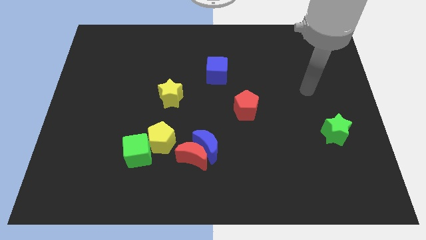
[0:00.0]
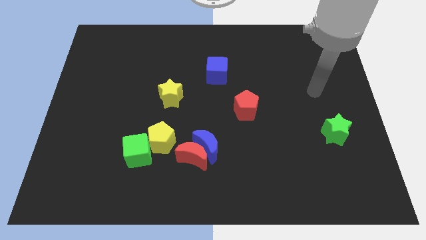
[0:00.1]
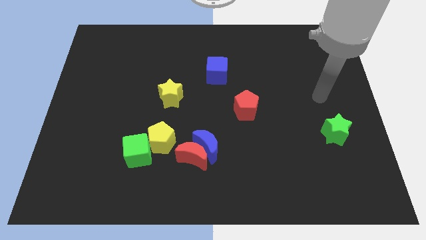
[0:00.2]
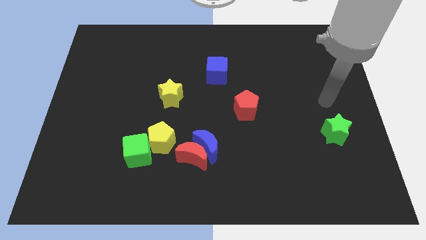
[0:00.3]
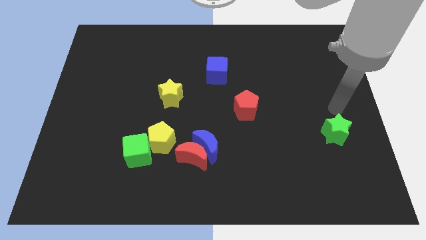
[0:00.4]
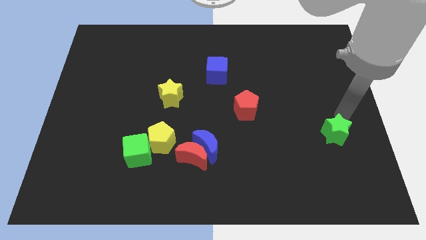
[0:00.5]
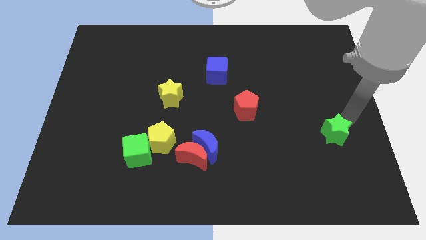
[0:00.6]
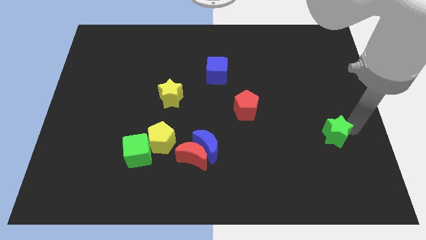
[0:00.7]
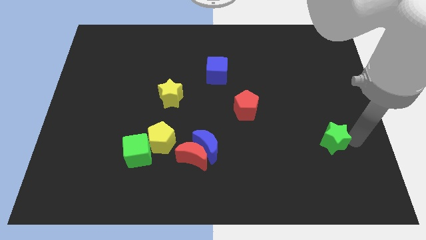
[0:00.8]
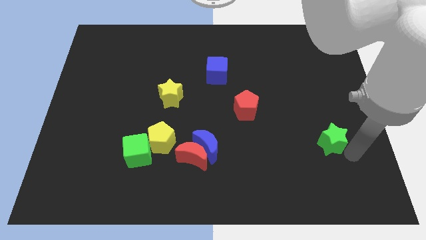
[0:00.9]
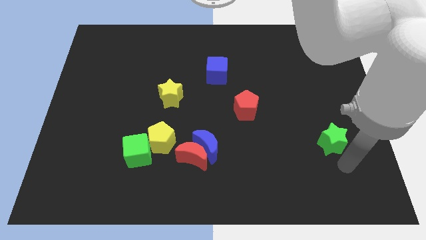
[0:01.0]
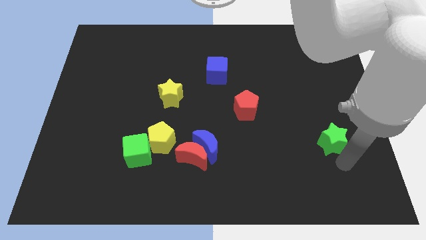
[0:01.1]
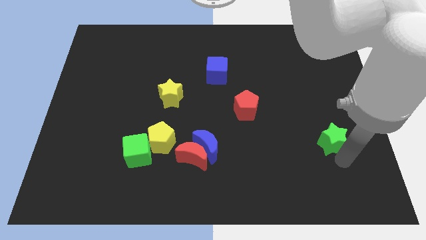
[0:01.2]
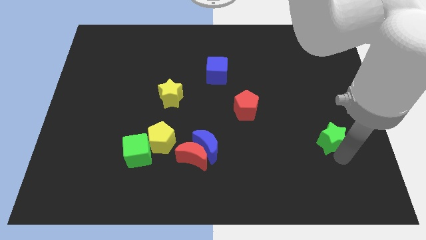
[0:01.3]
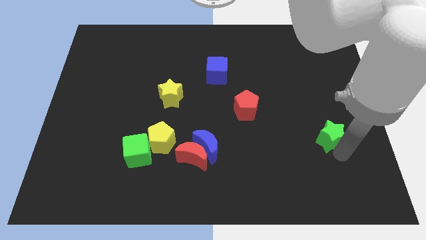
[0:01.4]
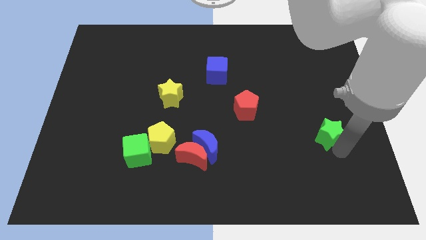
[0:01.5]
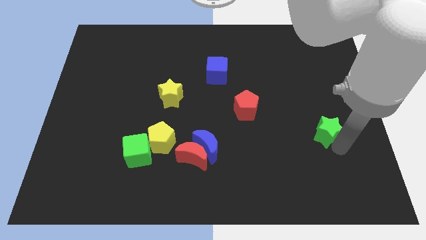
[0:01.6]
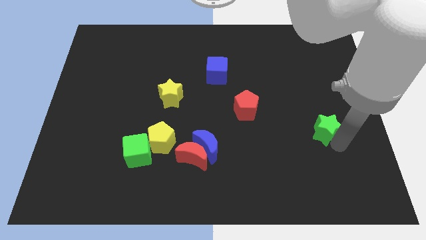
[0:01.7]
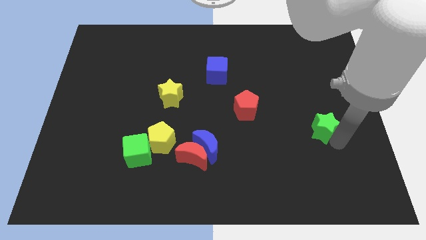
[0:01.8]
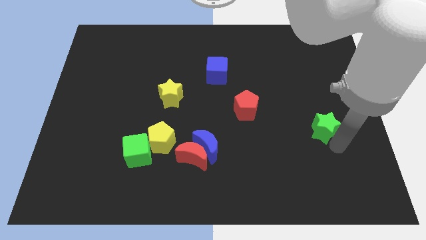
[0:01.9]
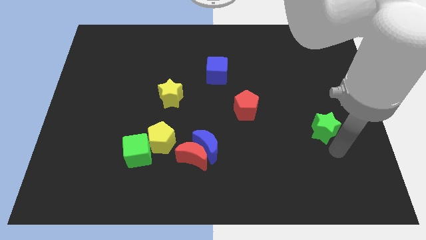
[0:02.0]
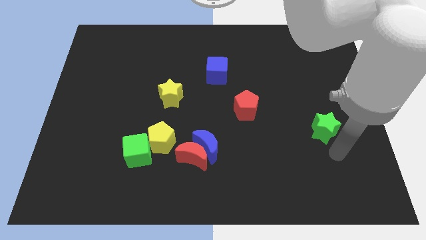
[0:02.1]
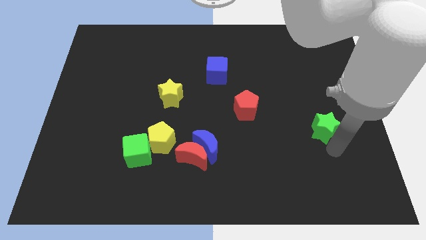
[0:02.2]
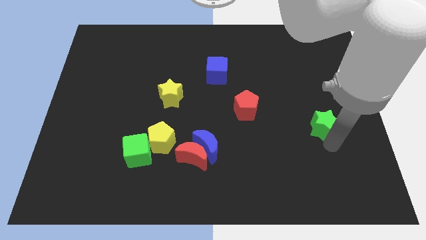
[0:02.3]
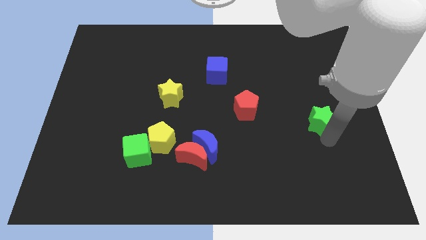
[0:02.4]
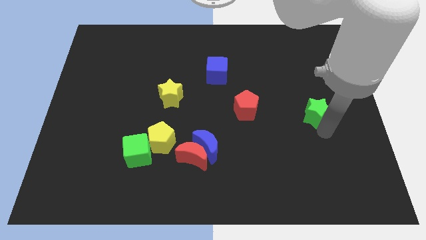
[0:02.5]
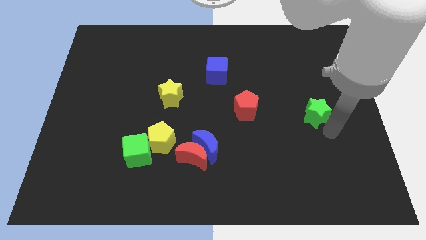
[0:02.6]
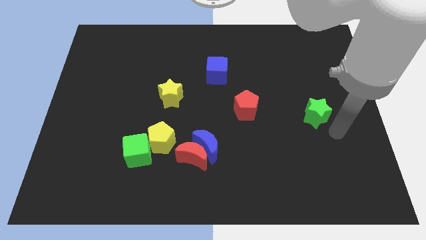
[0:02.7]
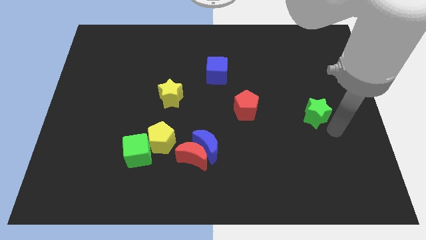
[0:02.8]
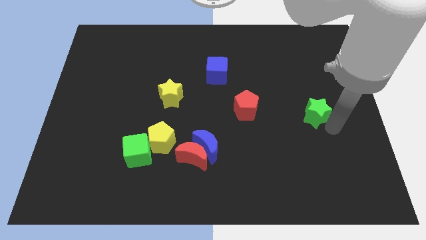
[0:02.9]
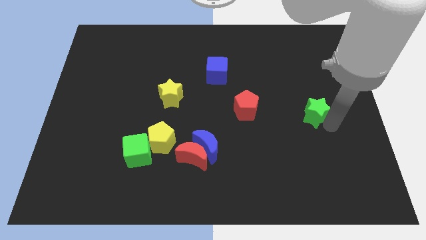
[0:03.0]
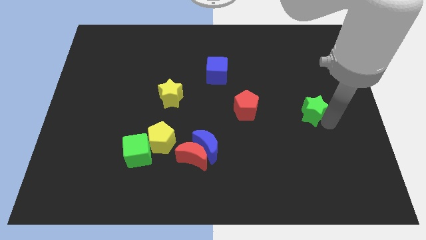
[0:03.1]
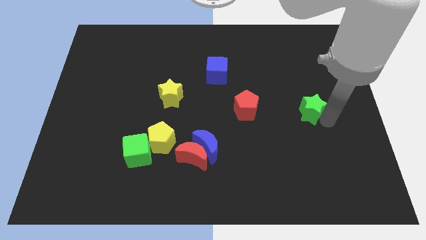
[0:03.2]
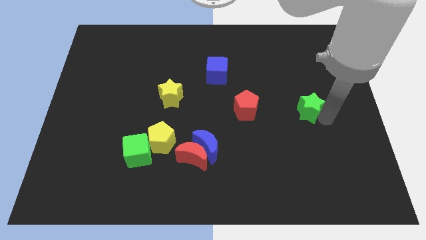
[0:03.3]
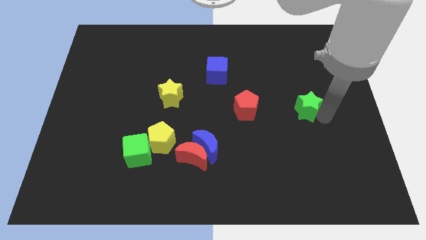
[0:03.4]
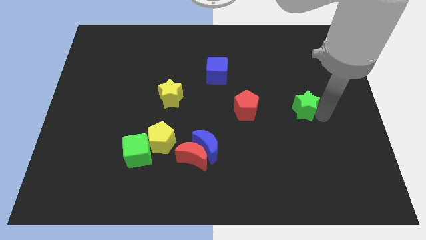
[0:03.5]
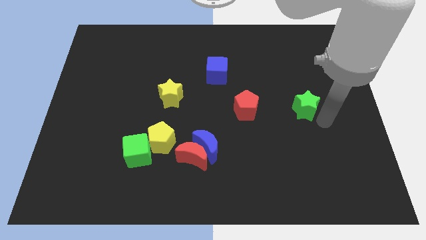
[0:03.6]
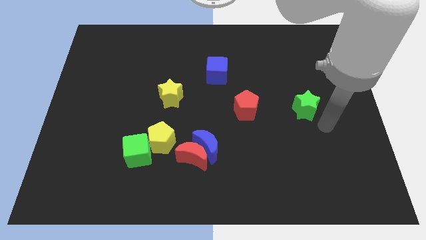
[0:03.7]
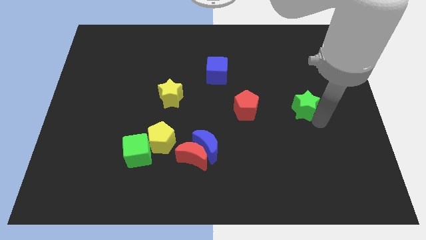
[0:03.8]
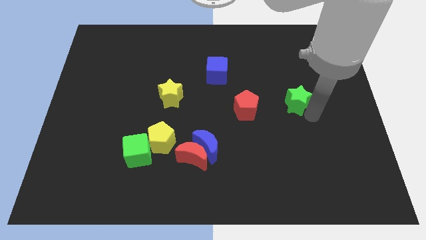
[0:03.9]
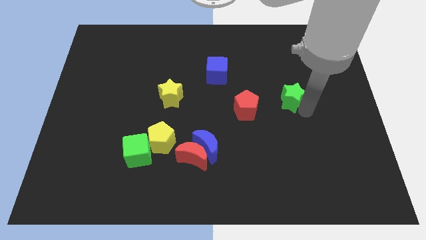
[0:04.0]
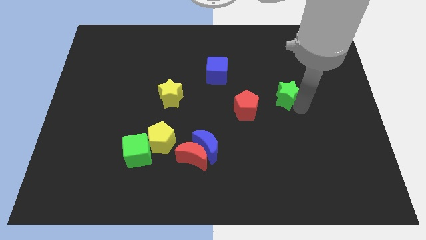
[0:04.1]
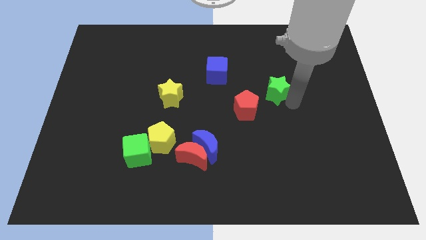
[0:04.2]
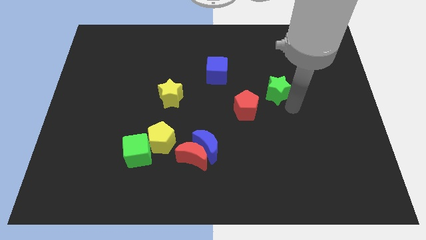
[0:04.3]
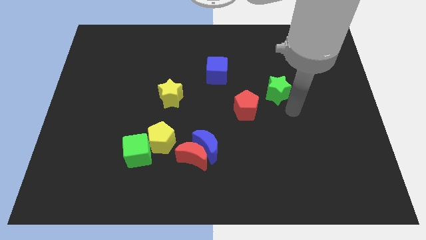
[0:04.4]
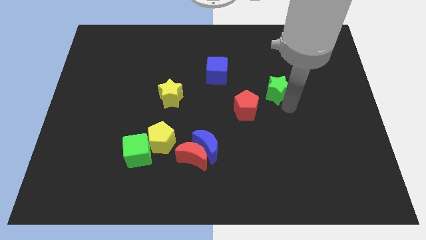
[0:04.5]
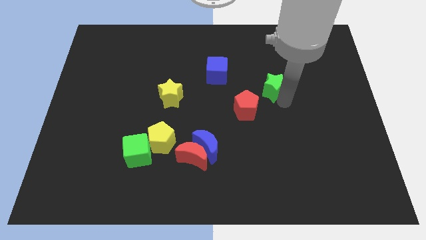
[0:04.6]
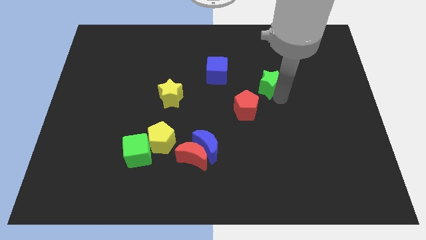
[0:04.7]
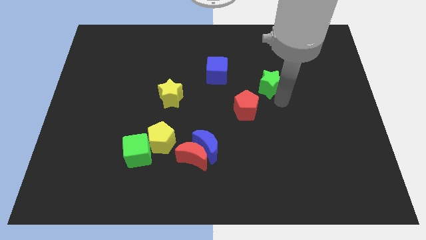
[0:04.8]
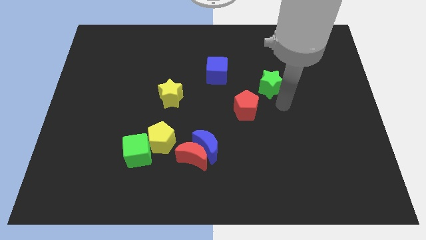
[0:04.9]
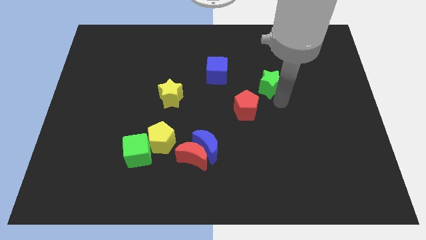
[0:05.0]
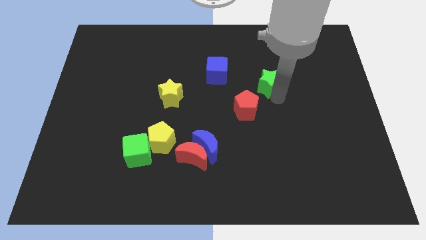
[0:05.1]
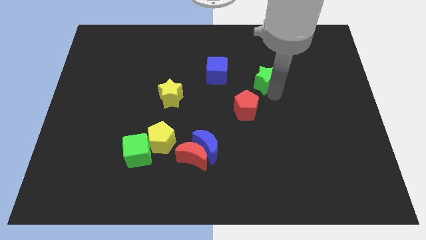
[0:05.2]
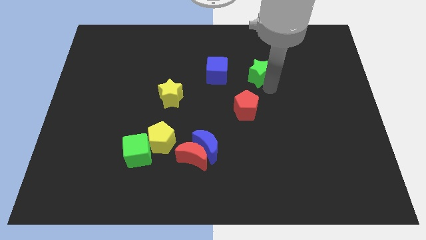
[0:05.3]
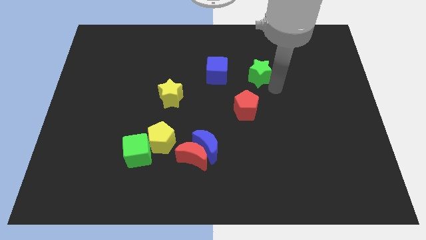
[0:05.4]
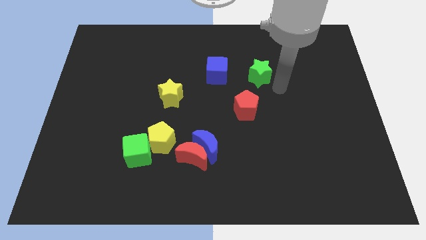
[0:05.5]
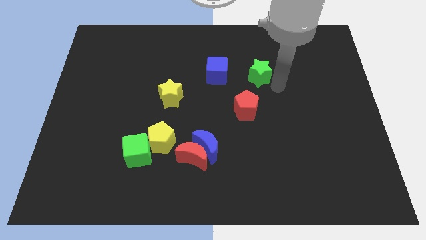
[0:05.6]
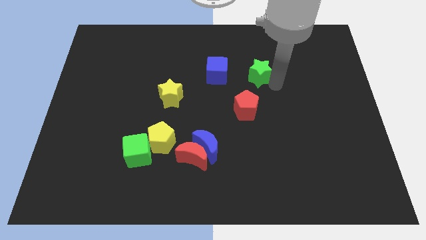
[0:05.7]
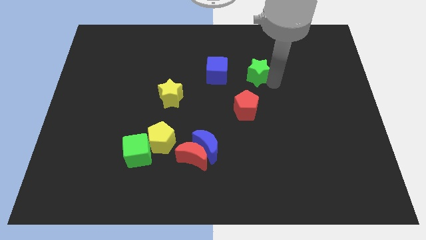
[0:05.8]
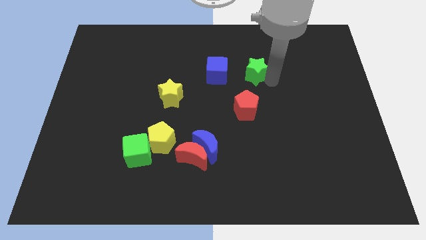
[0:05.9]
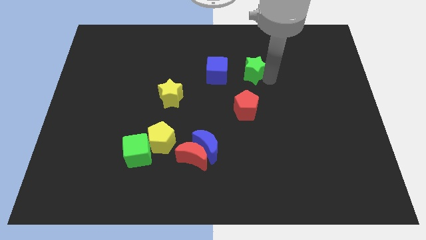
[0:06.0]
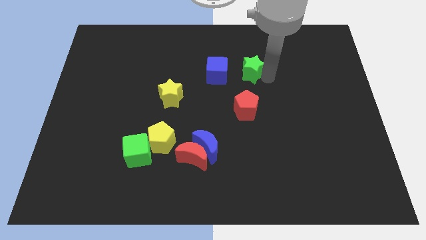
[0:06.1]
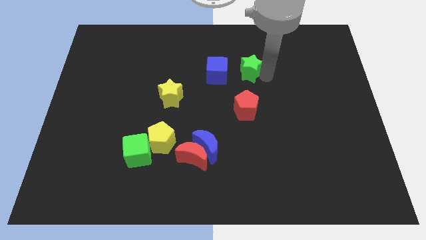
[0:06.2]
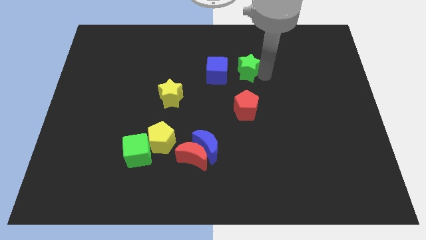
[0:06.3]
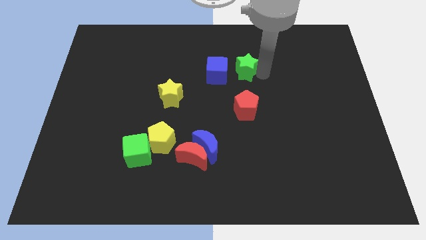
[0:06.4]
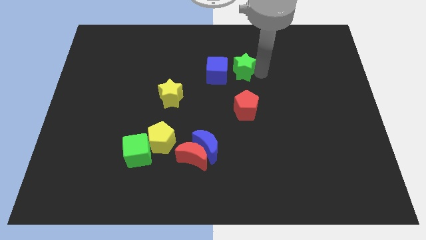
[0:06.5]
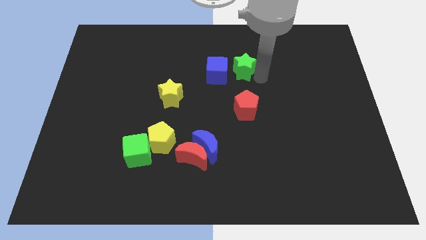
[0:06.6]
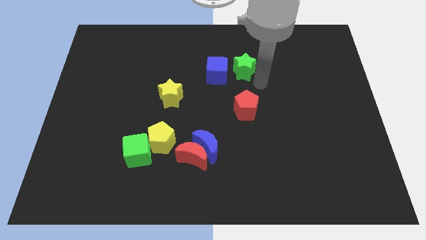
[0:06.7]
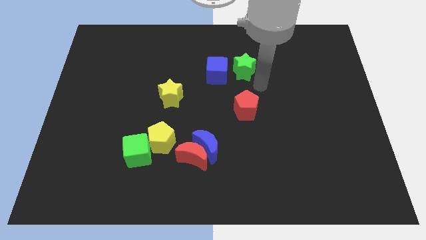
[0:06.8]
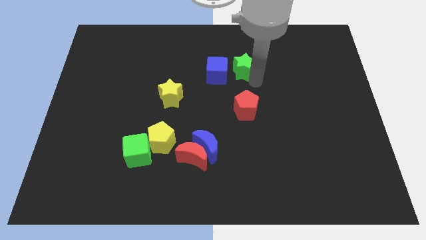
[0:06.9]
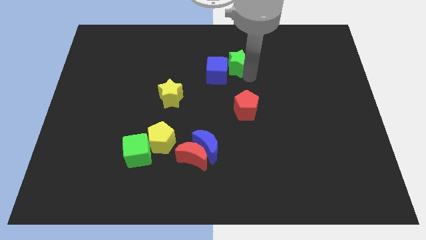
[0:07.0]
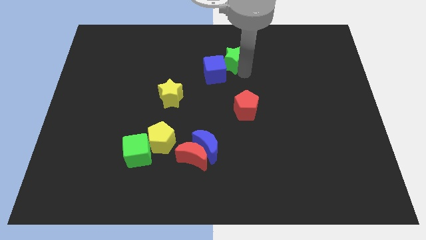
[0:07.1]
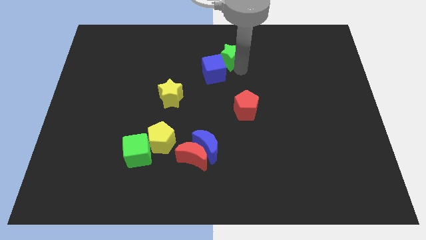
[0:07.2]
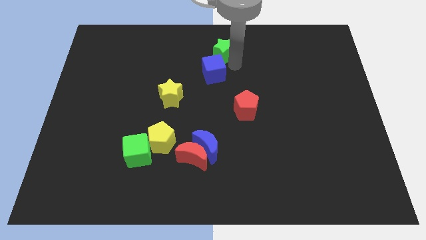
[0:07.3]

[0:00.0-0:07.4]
move the green star to the towards your base
